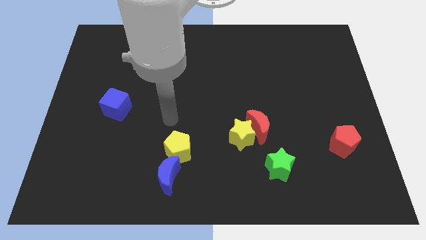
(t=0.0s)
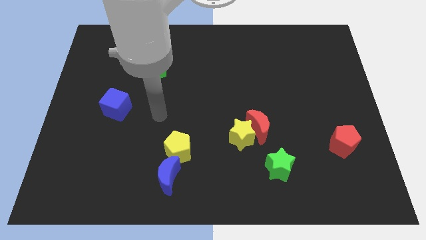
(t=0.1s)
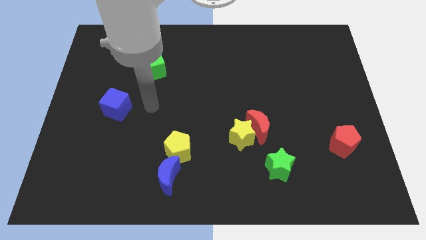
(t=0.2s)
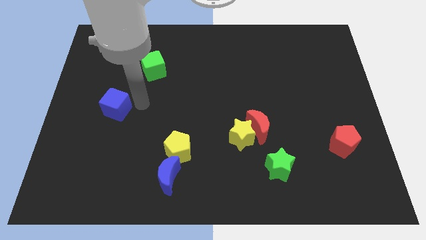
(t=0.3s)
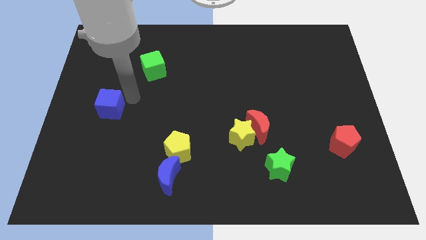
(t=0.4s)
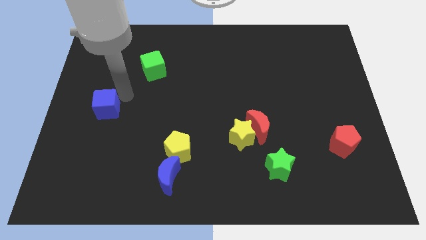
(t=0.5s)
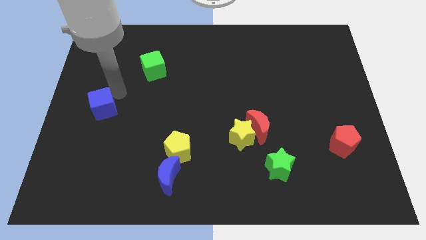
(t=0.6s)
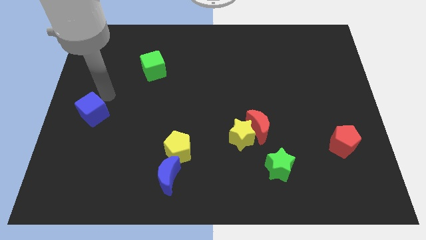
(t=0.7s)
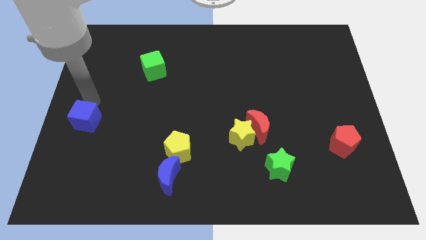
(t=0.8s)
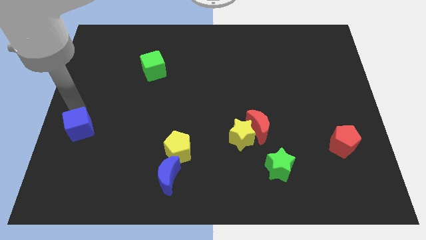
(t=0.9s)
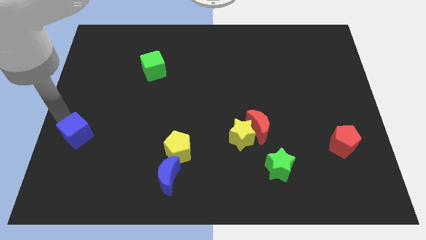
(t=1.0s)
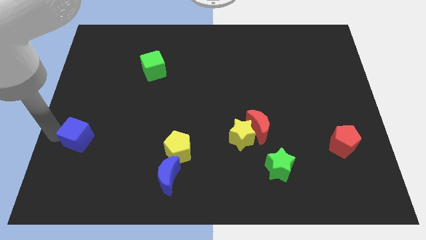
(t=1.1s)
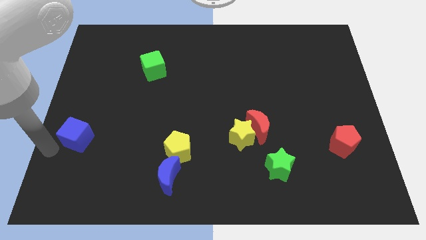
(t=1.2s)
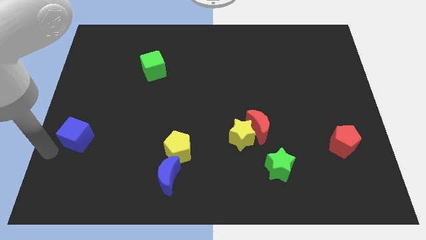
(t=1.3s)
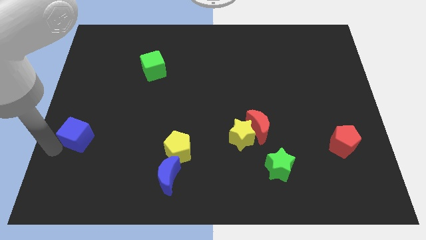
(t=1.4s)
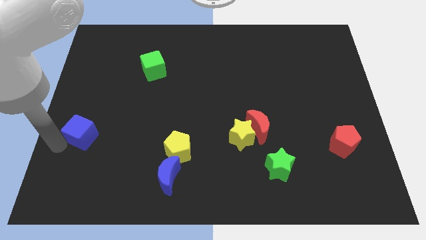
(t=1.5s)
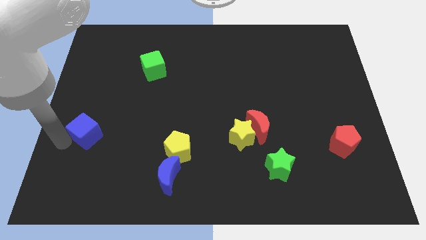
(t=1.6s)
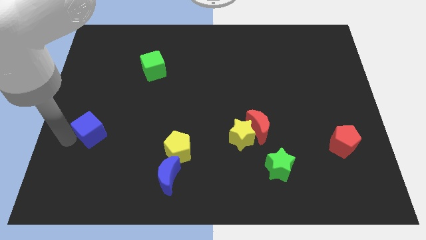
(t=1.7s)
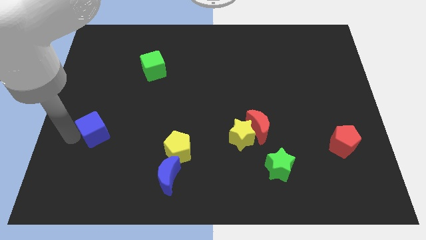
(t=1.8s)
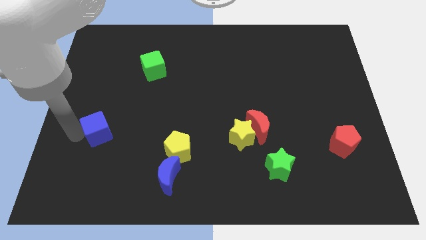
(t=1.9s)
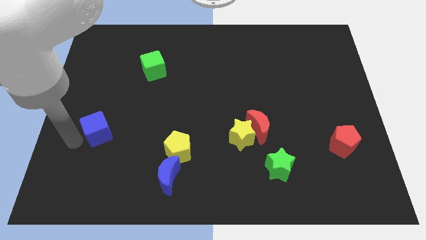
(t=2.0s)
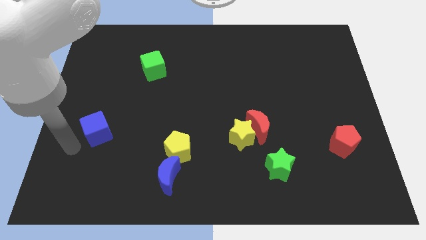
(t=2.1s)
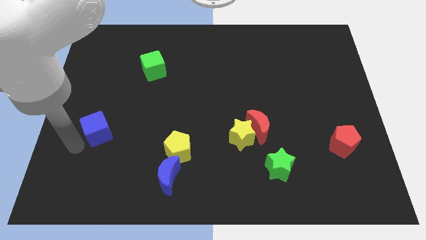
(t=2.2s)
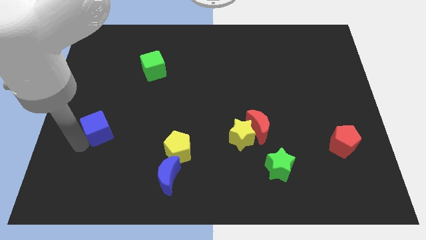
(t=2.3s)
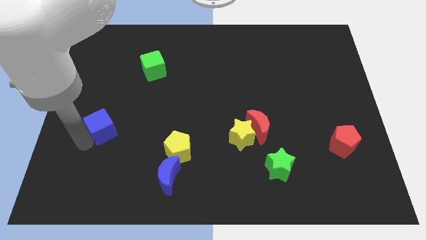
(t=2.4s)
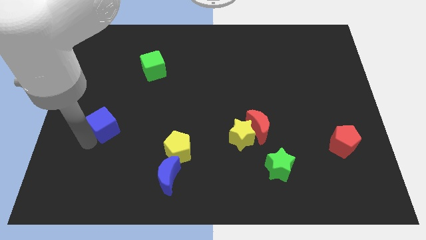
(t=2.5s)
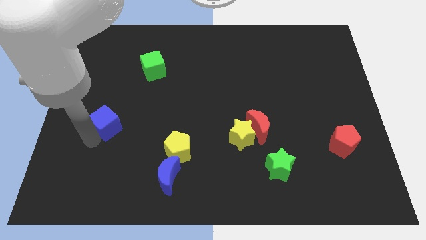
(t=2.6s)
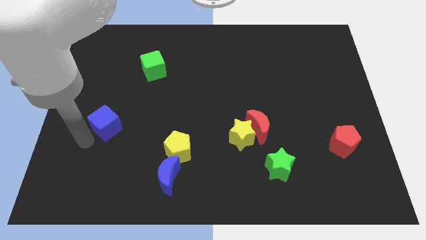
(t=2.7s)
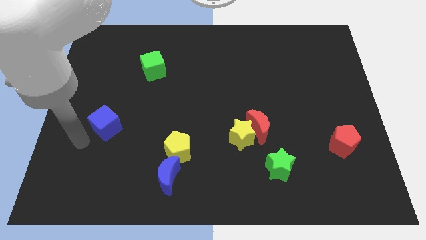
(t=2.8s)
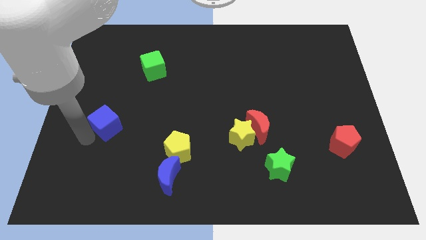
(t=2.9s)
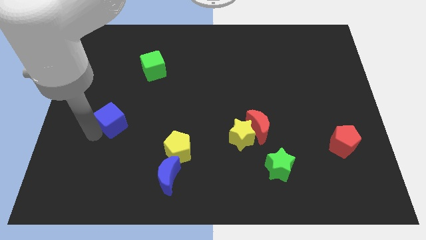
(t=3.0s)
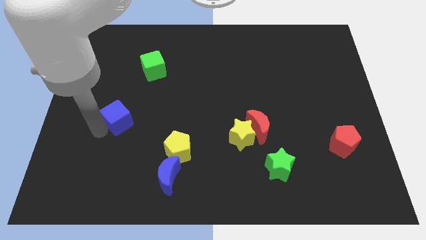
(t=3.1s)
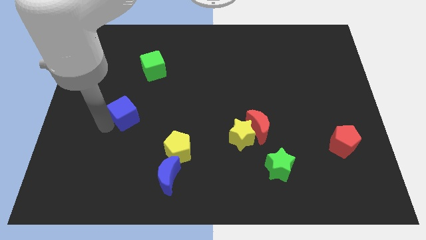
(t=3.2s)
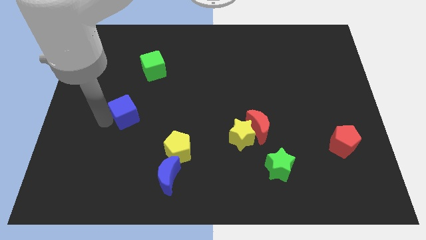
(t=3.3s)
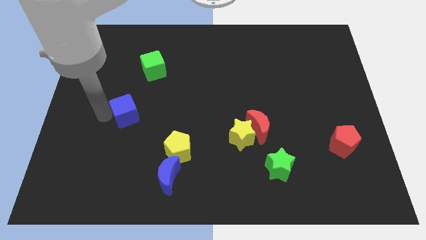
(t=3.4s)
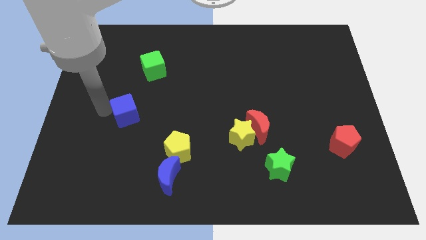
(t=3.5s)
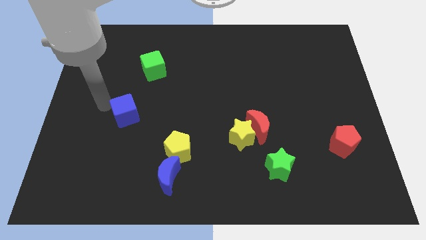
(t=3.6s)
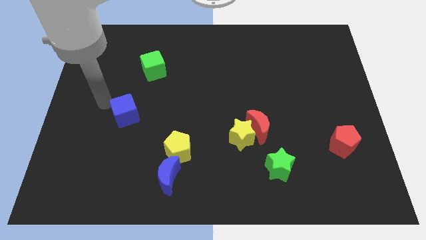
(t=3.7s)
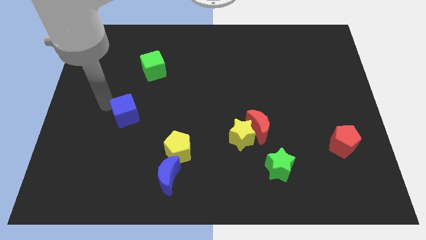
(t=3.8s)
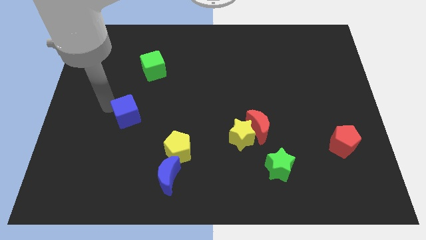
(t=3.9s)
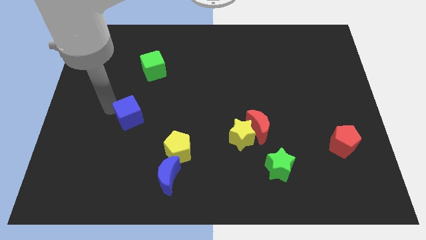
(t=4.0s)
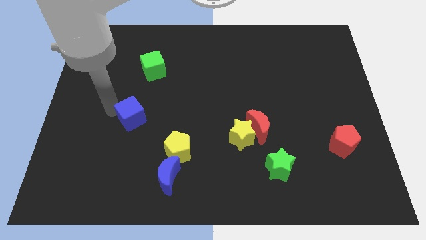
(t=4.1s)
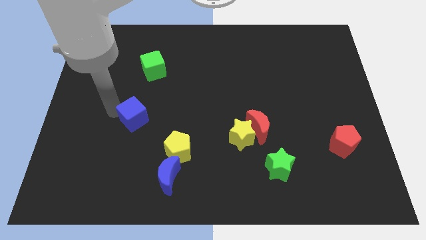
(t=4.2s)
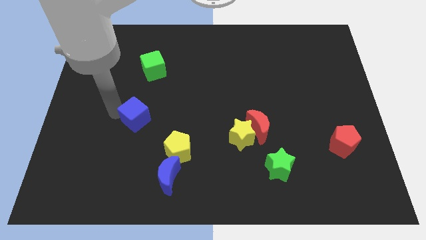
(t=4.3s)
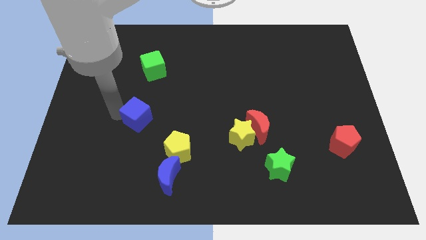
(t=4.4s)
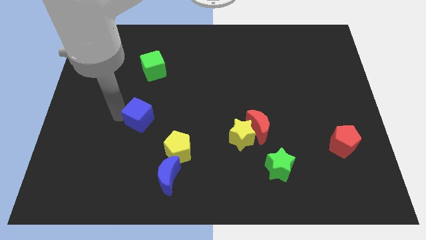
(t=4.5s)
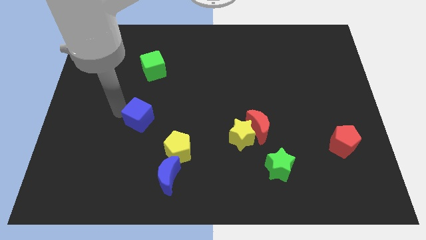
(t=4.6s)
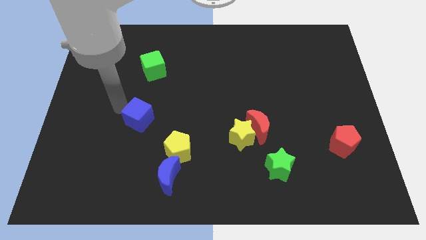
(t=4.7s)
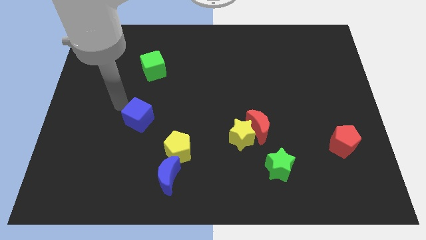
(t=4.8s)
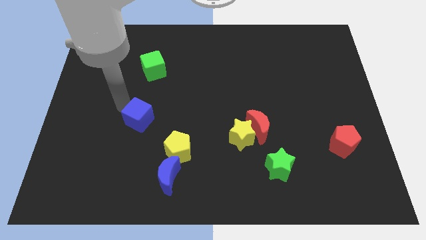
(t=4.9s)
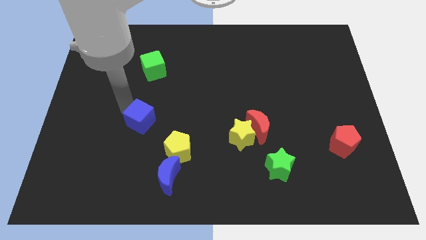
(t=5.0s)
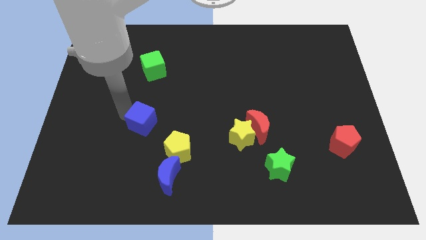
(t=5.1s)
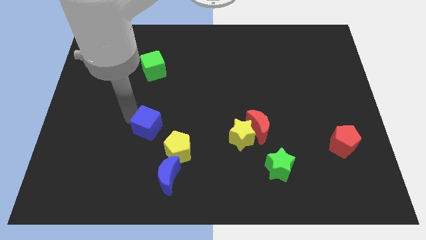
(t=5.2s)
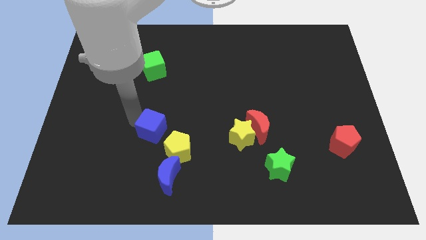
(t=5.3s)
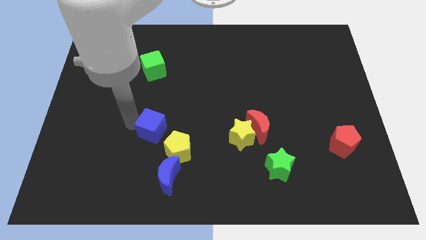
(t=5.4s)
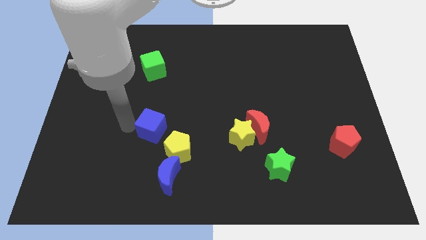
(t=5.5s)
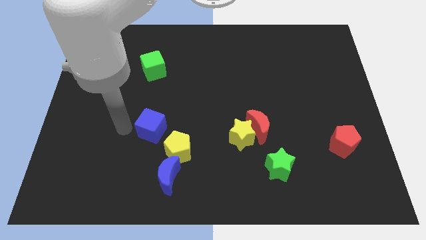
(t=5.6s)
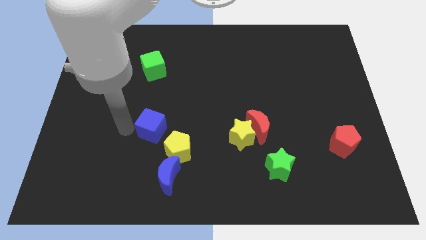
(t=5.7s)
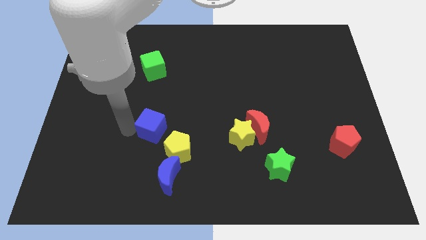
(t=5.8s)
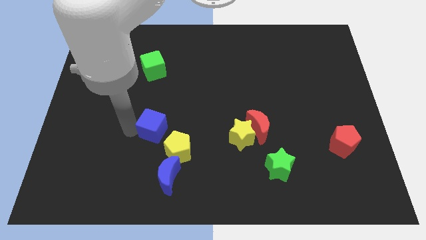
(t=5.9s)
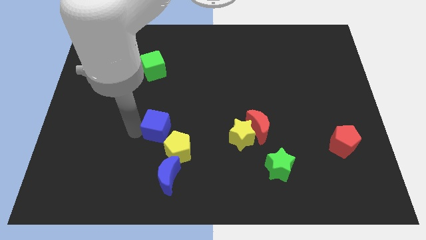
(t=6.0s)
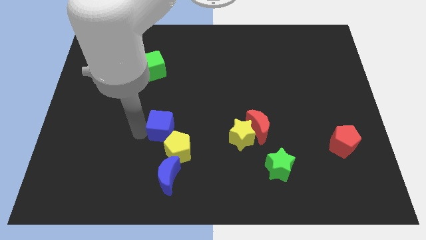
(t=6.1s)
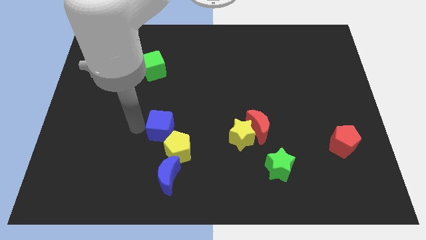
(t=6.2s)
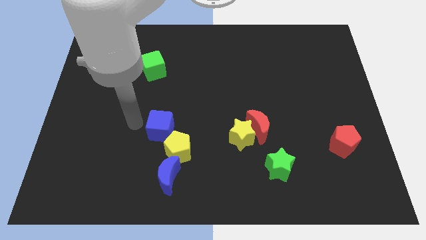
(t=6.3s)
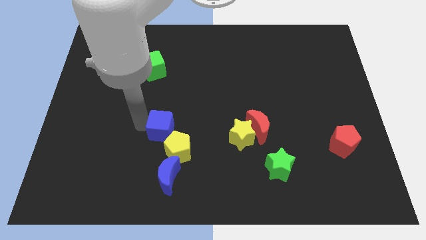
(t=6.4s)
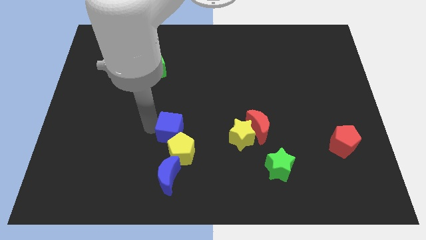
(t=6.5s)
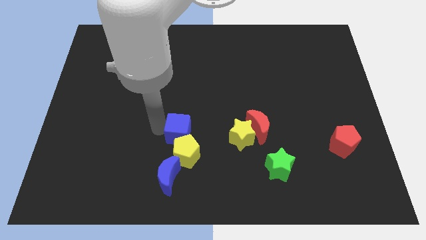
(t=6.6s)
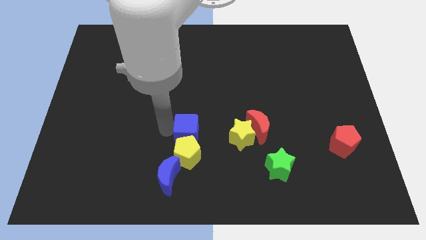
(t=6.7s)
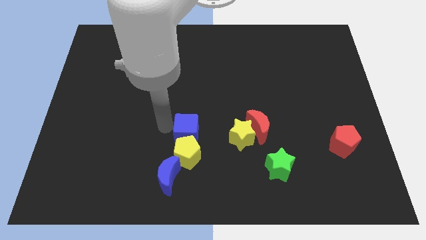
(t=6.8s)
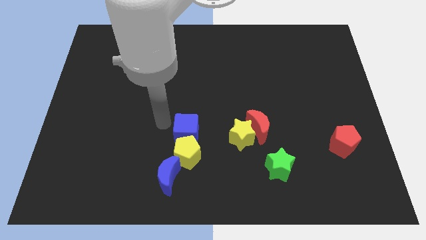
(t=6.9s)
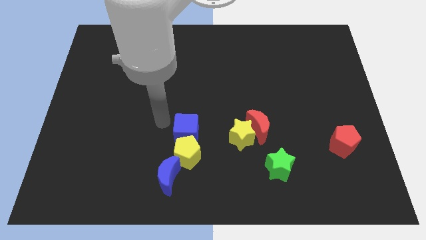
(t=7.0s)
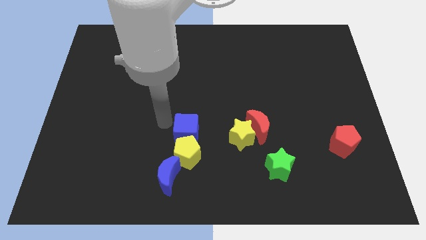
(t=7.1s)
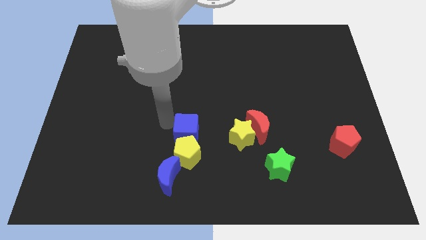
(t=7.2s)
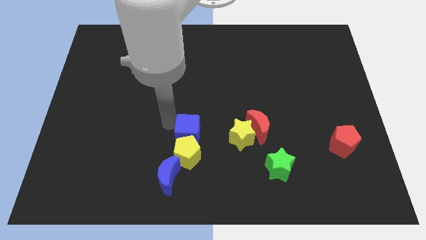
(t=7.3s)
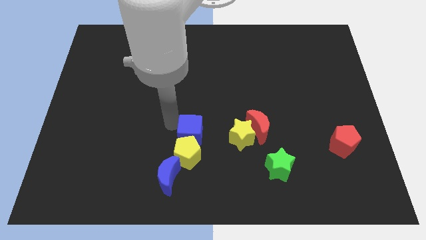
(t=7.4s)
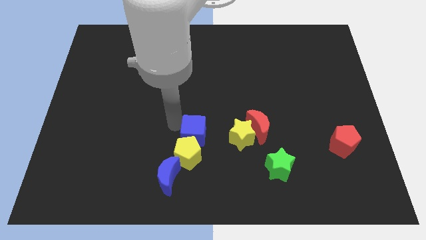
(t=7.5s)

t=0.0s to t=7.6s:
slide the blue cube to the top right side of the blue moon
